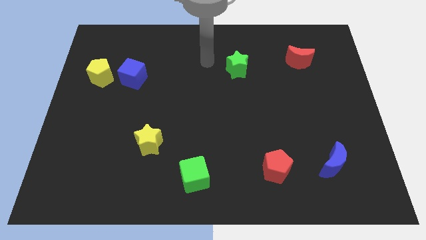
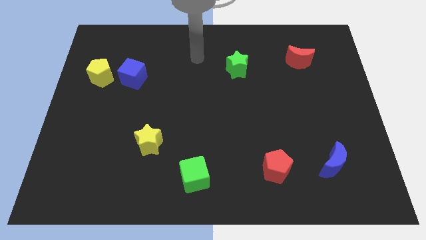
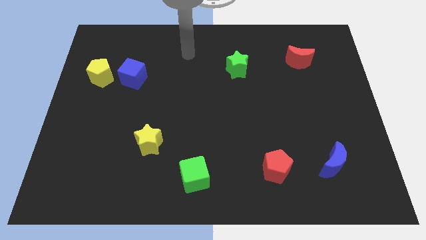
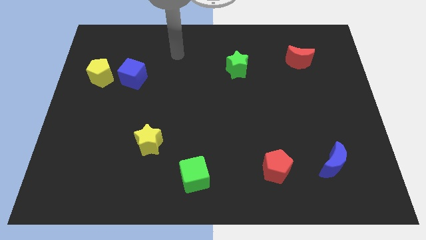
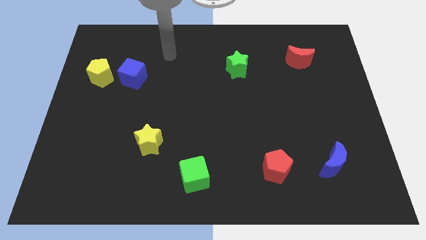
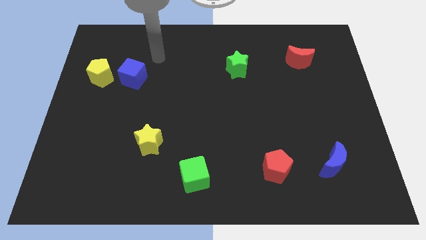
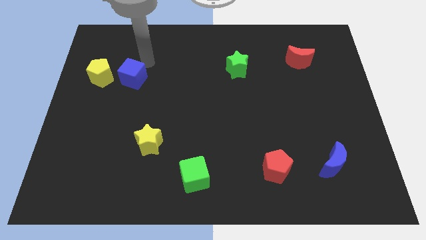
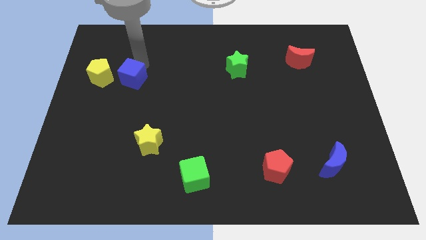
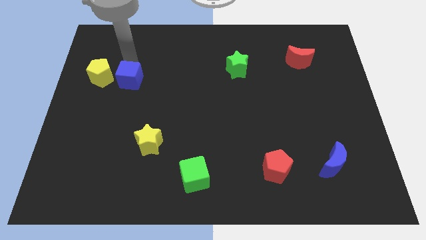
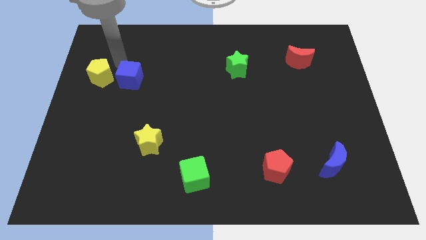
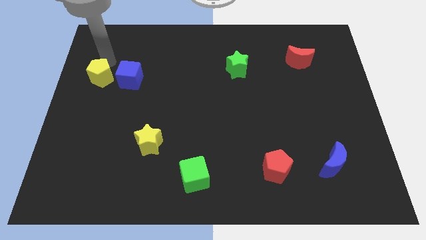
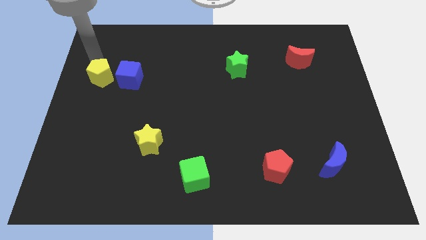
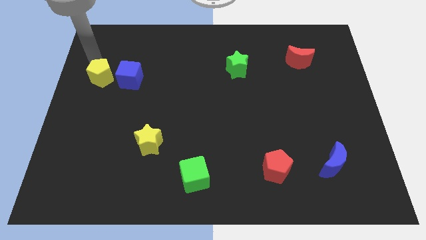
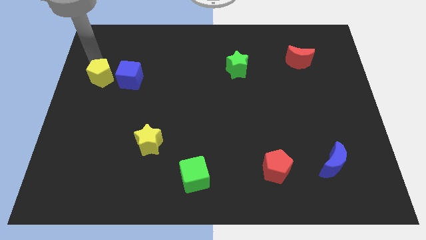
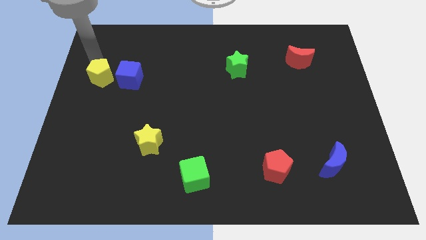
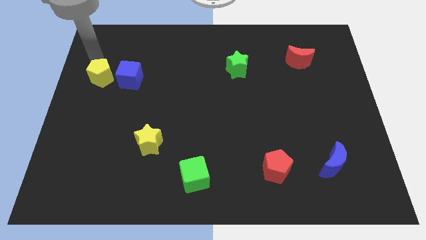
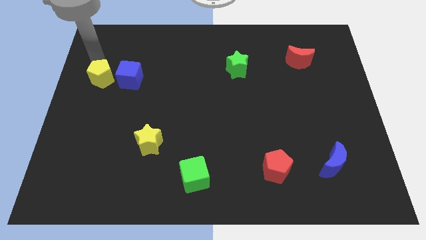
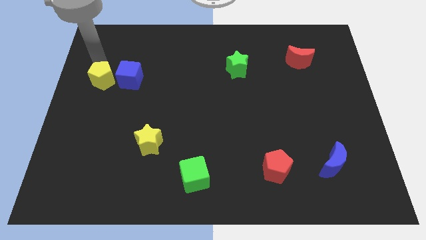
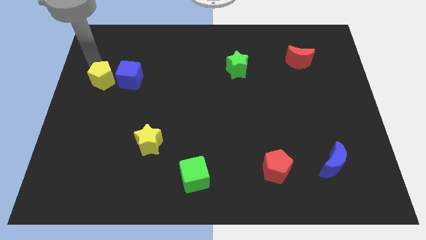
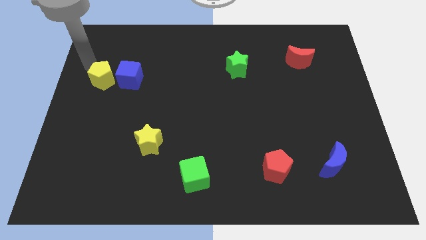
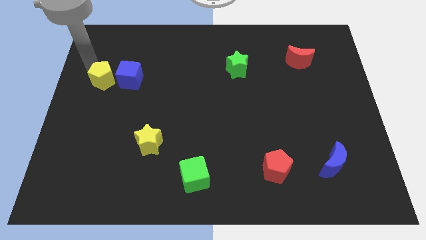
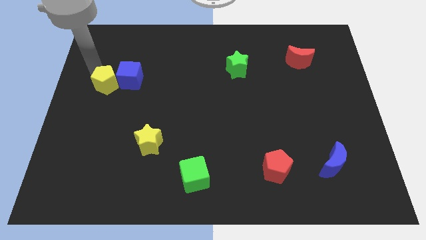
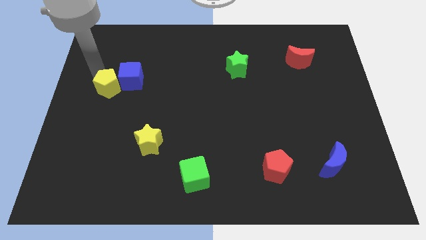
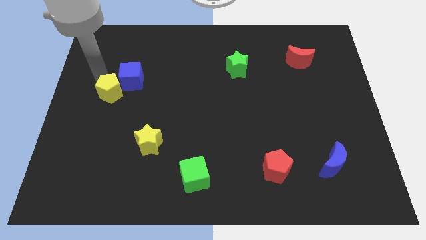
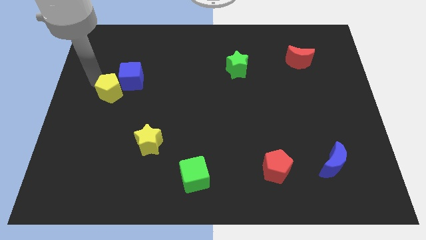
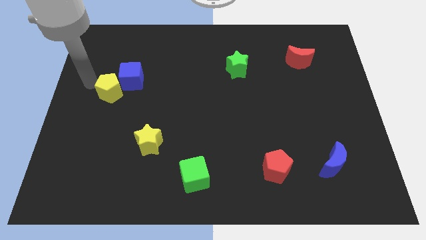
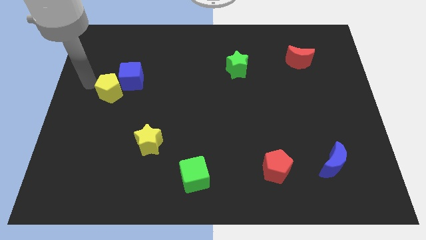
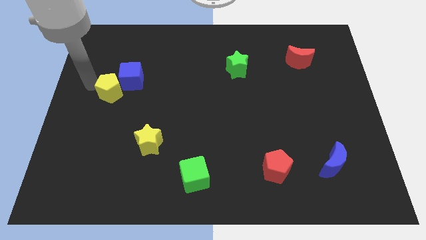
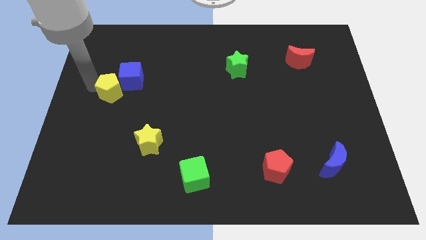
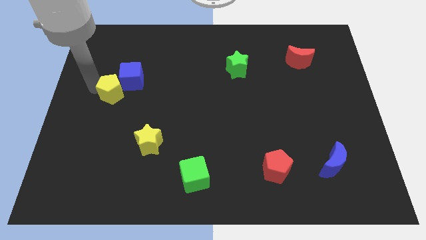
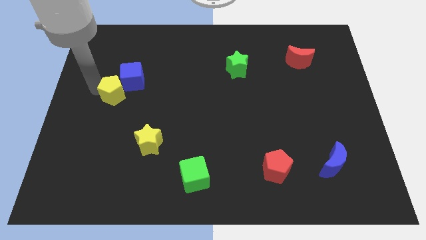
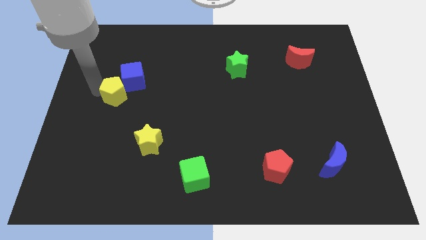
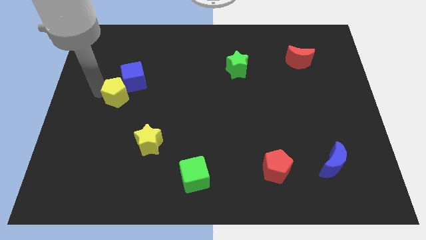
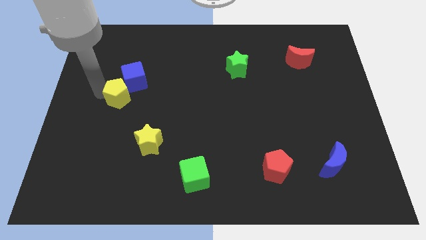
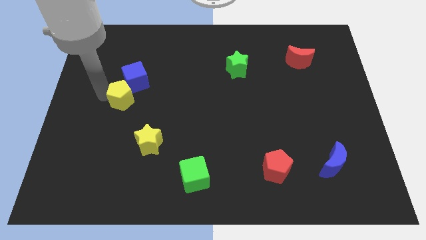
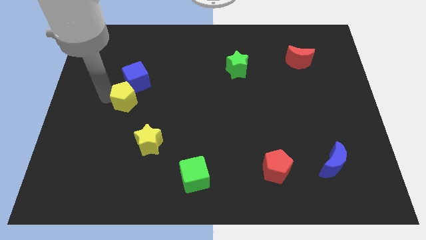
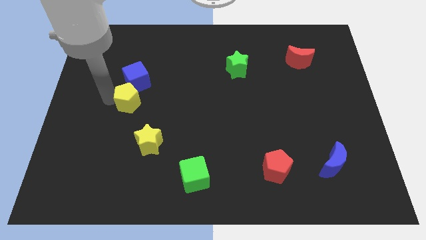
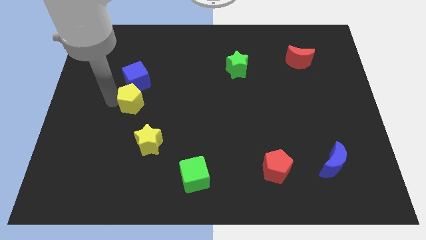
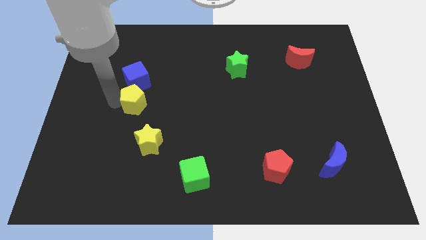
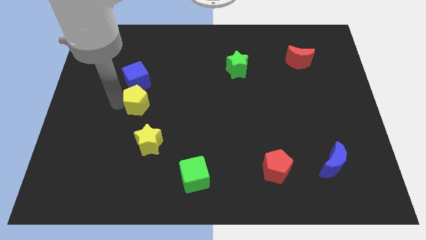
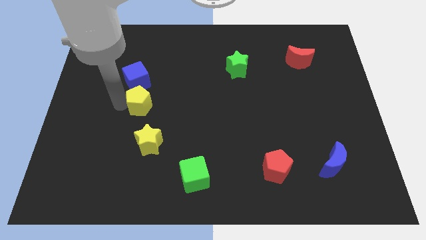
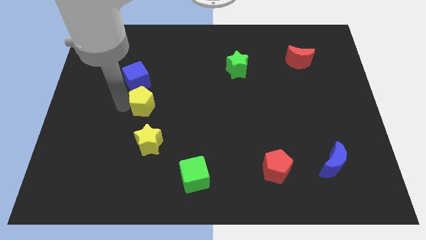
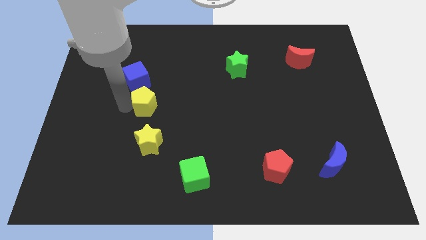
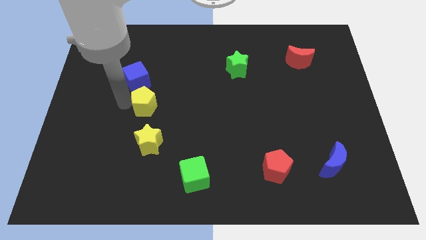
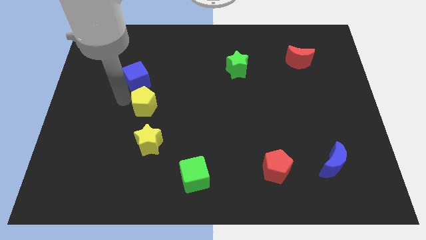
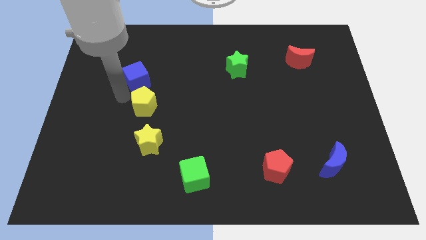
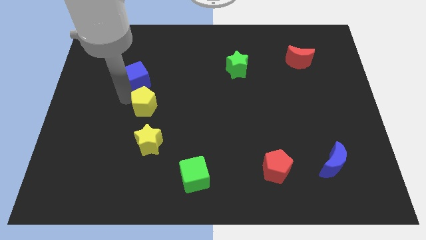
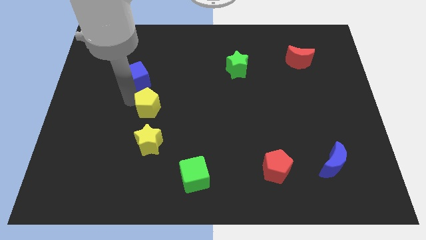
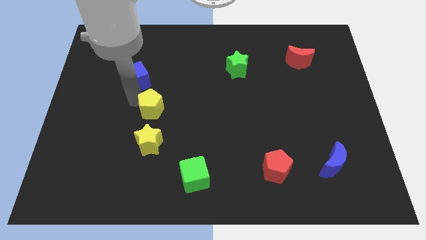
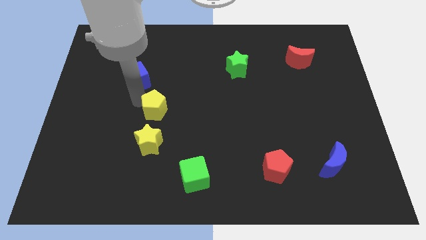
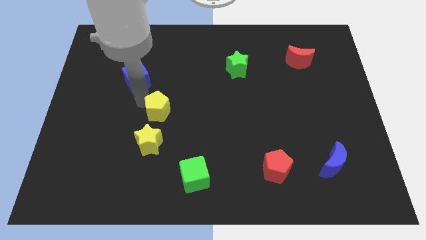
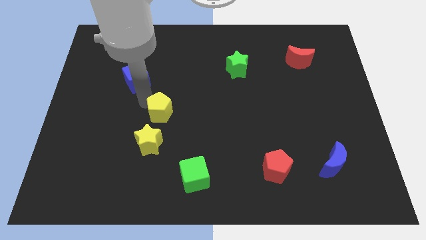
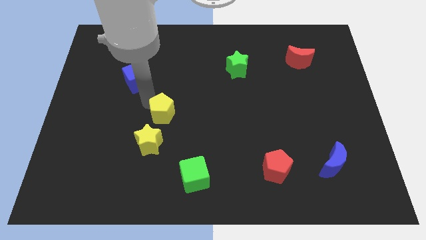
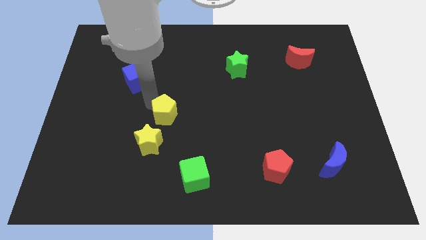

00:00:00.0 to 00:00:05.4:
move the yellow pentagon downwards and to the right diagonally

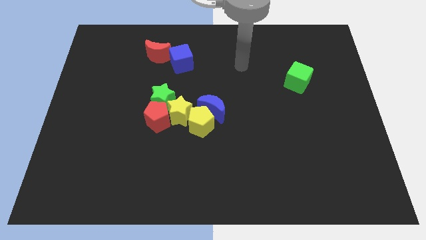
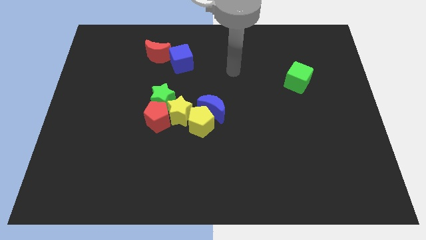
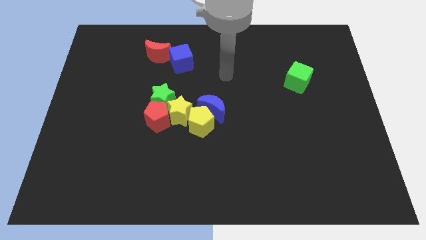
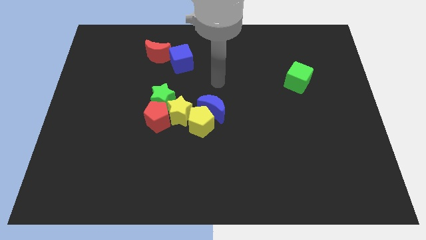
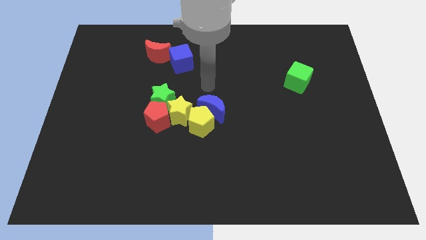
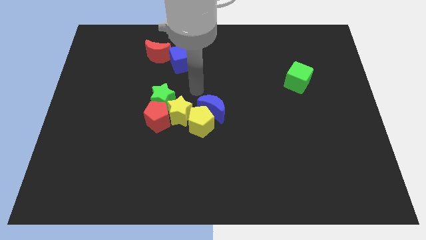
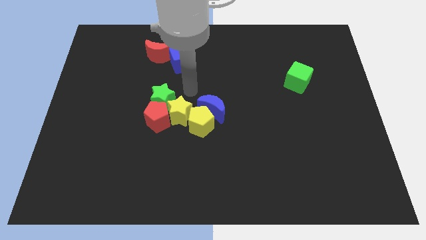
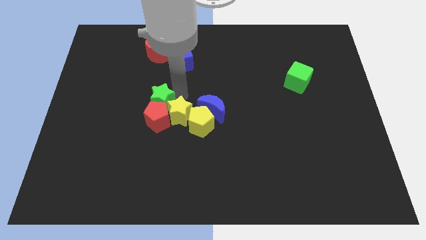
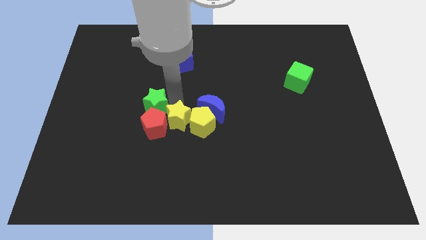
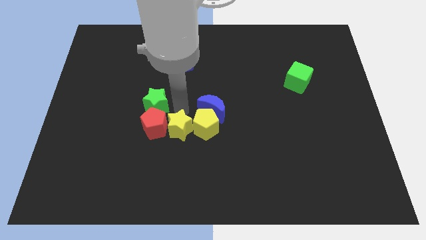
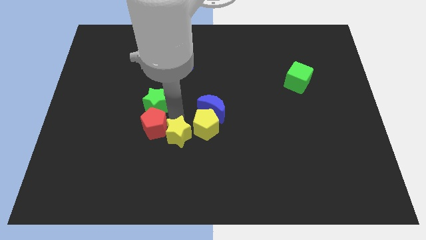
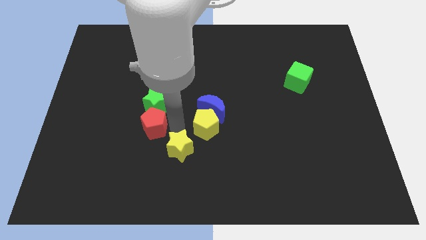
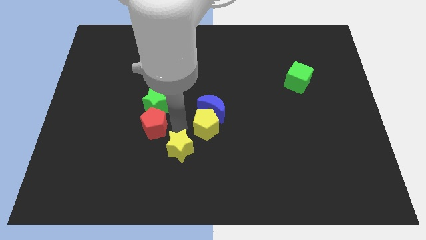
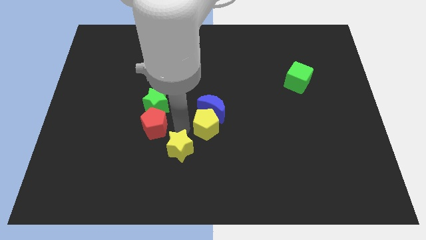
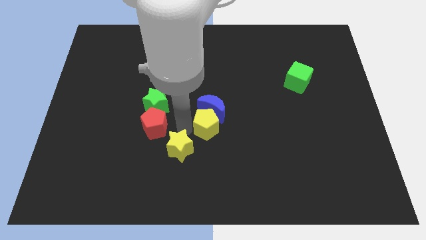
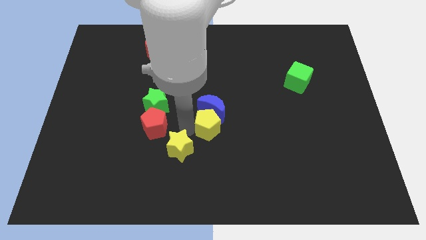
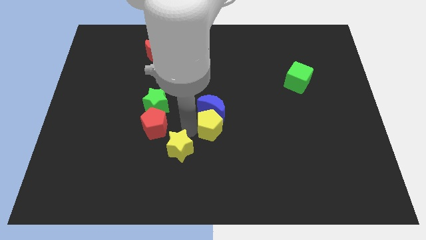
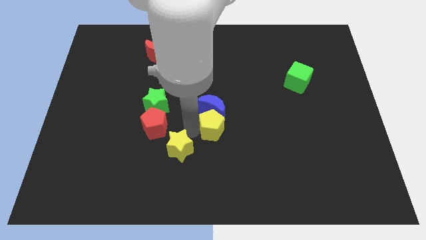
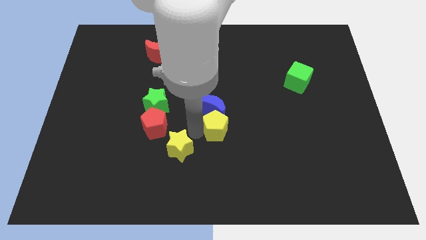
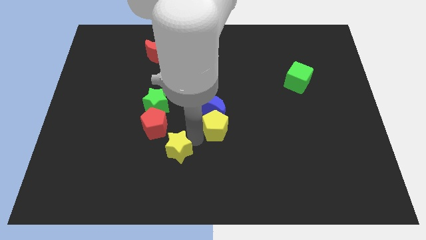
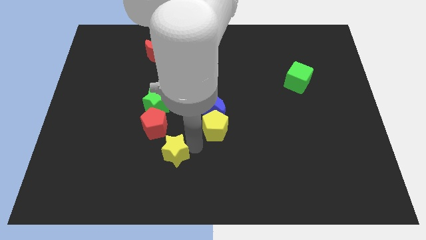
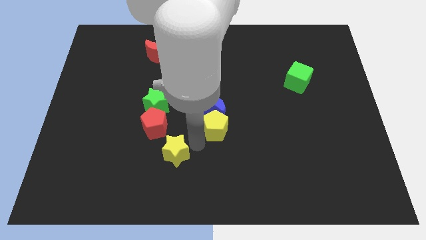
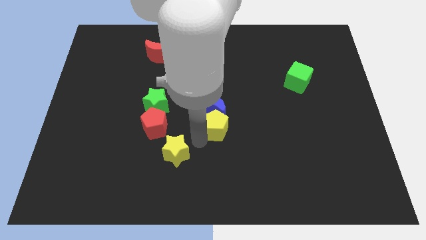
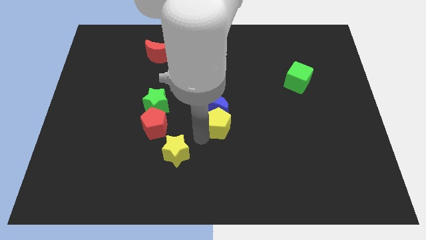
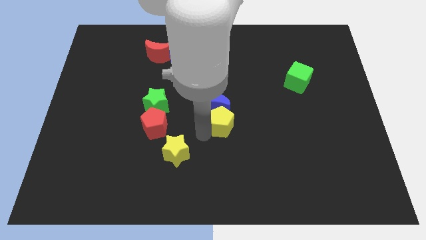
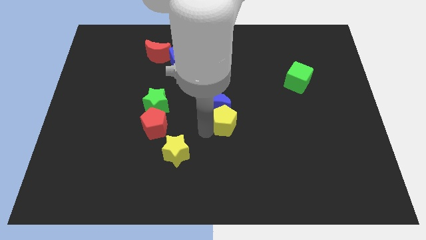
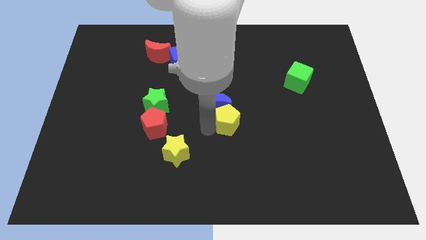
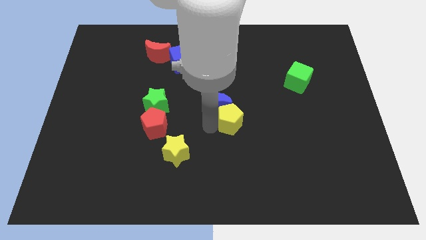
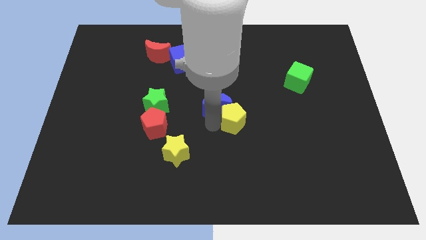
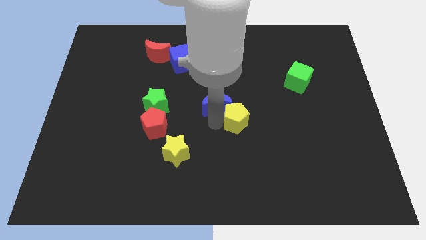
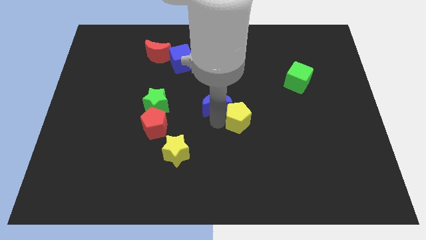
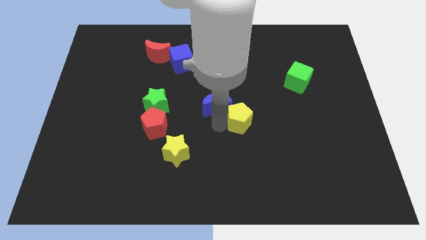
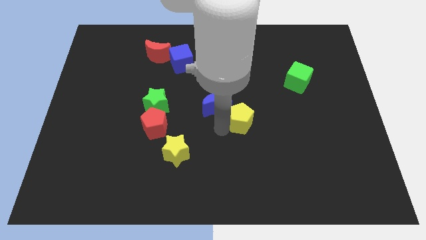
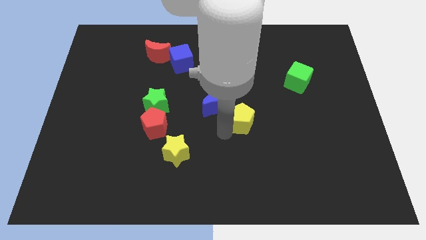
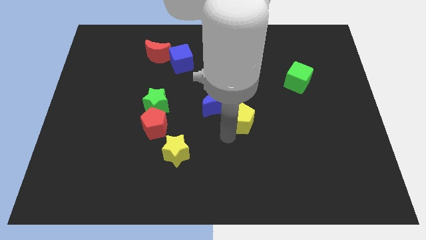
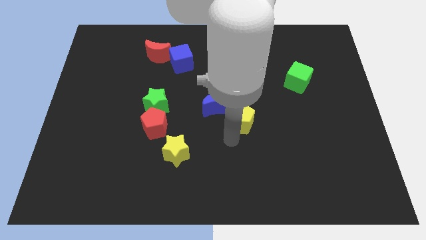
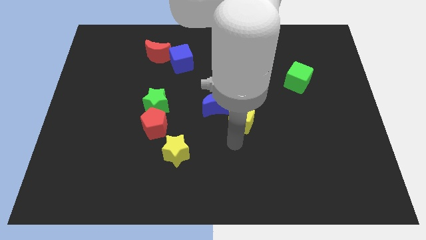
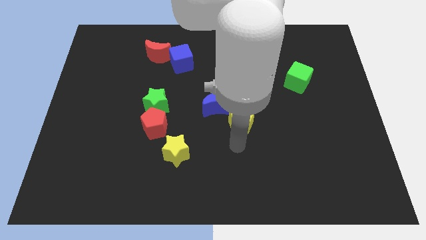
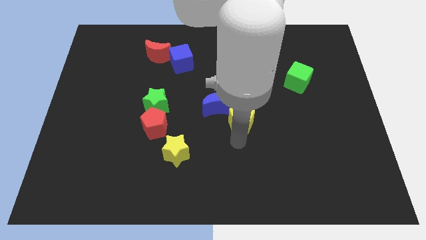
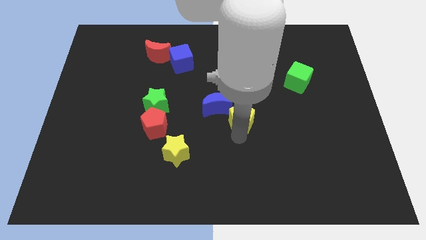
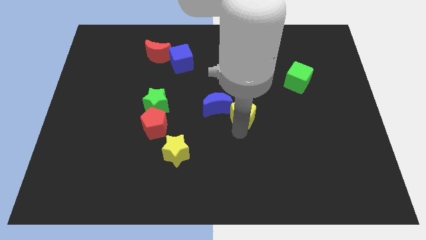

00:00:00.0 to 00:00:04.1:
move the yellow pentagon upwards and right diagonally somewhat
